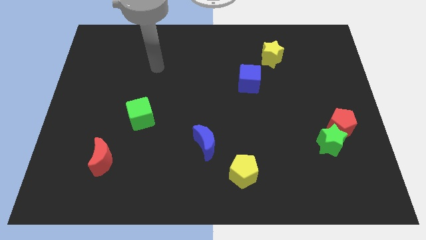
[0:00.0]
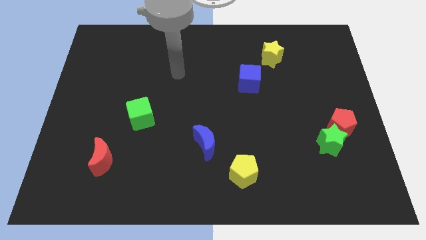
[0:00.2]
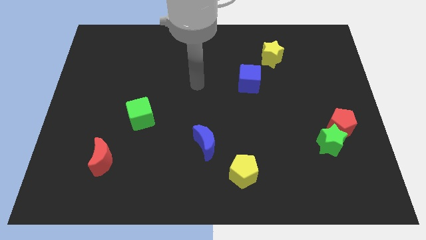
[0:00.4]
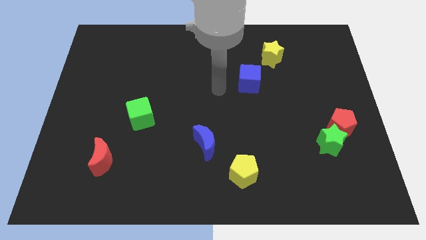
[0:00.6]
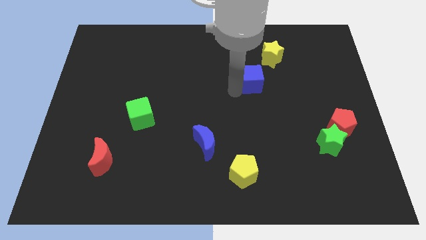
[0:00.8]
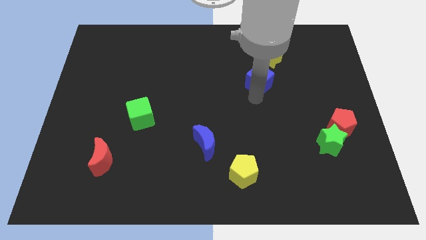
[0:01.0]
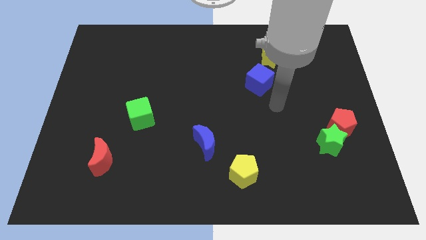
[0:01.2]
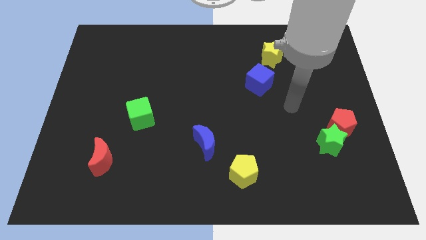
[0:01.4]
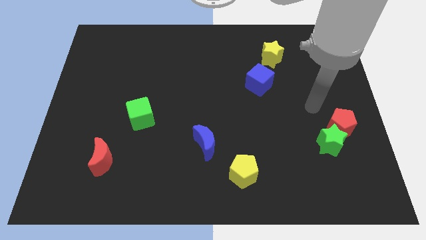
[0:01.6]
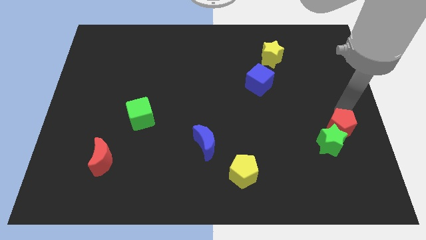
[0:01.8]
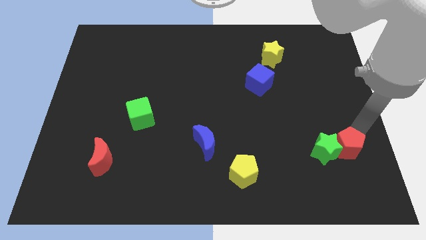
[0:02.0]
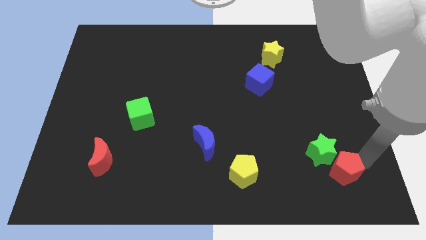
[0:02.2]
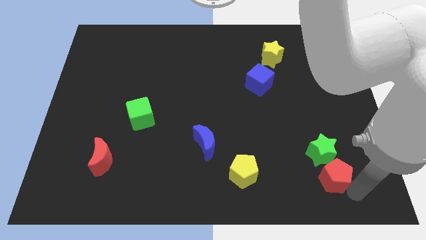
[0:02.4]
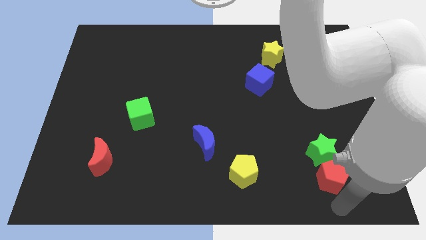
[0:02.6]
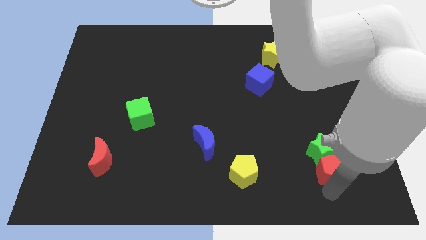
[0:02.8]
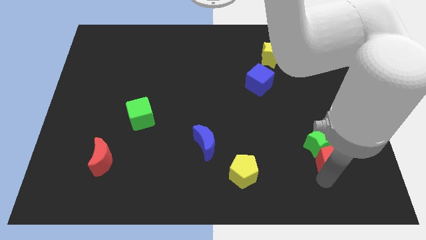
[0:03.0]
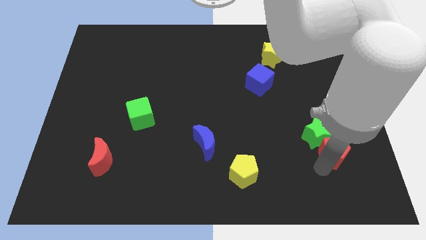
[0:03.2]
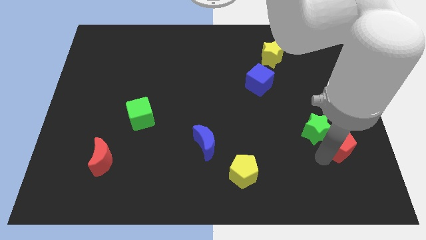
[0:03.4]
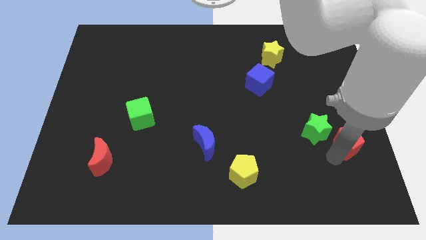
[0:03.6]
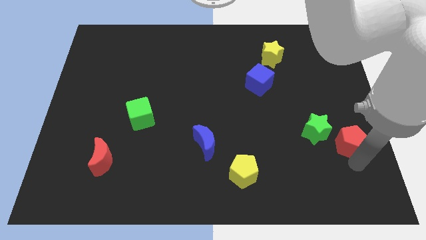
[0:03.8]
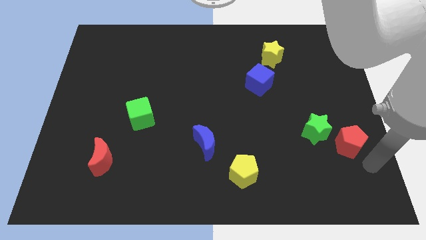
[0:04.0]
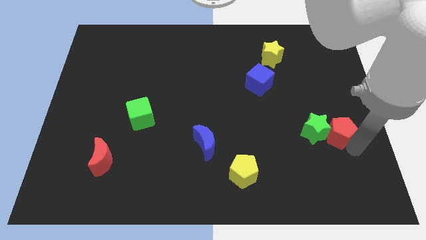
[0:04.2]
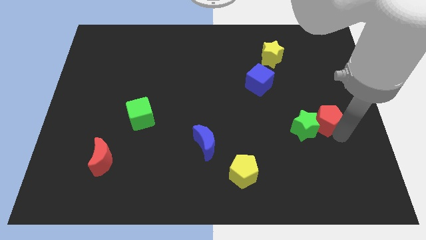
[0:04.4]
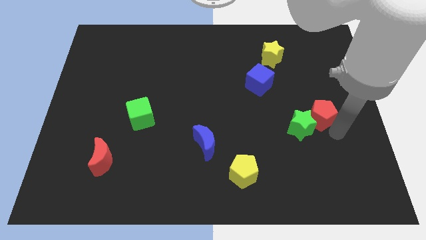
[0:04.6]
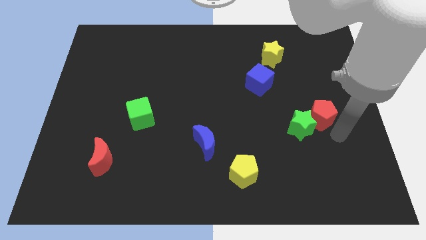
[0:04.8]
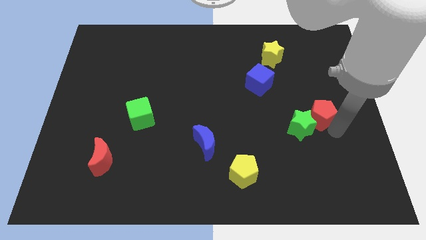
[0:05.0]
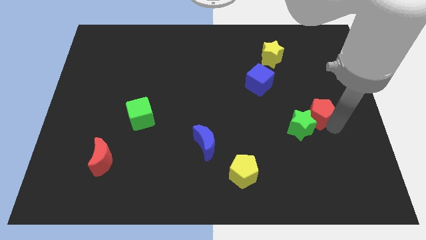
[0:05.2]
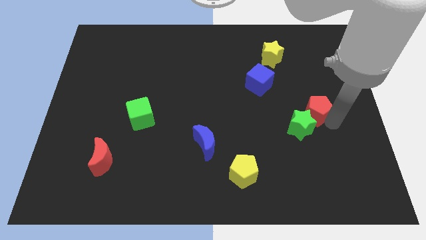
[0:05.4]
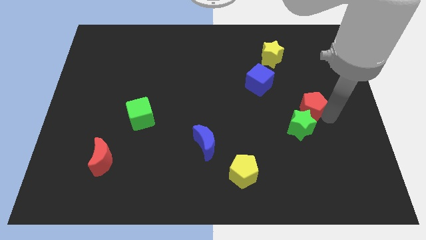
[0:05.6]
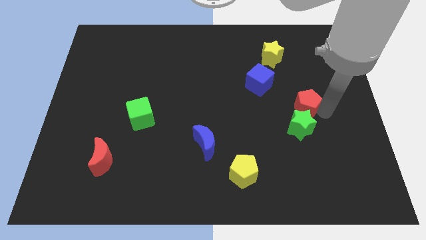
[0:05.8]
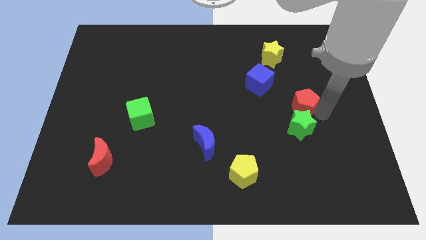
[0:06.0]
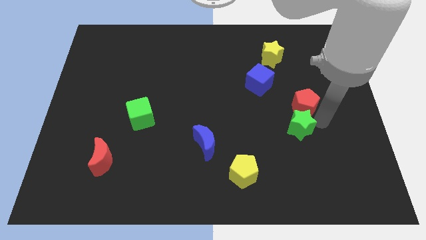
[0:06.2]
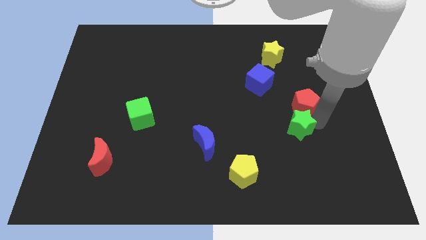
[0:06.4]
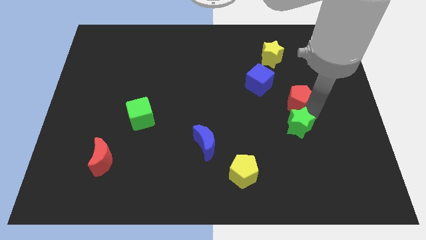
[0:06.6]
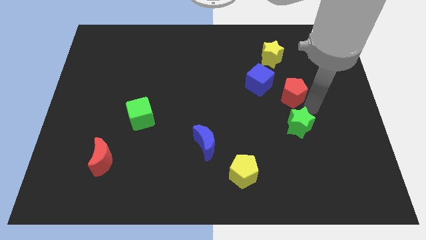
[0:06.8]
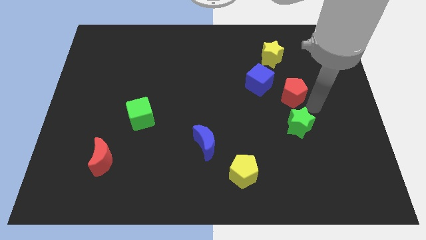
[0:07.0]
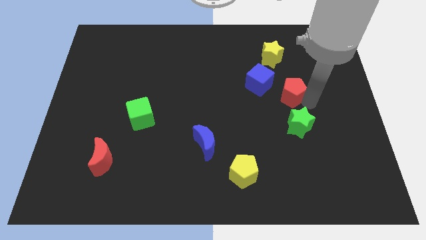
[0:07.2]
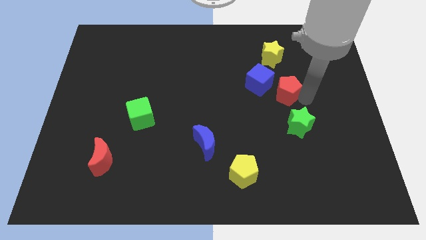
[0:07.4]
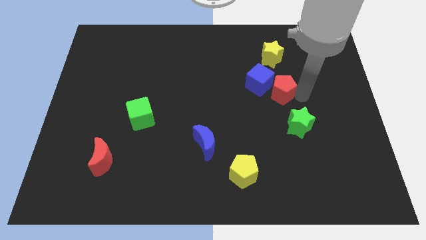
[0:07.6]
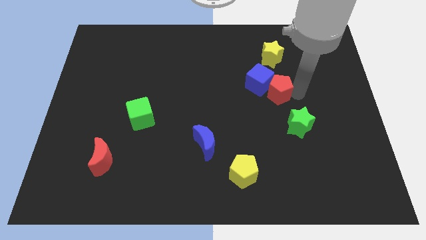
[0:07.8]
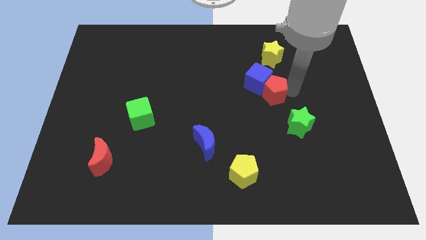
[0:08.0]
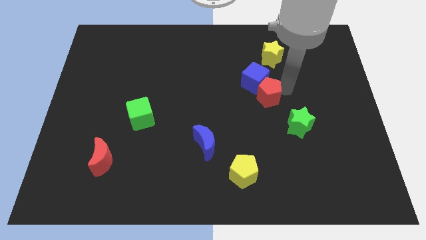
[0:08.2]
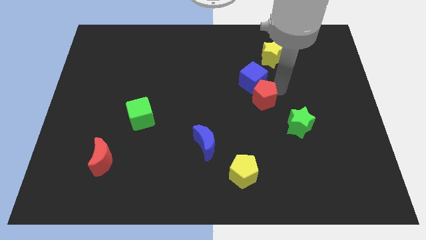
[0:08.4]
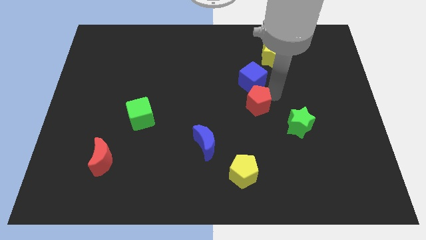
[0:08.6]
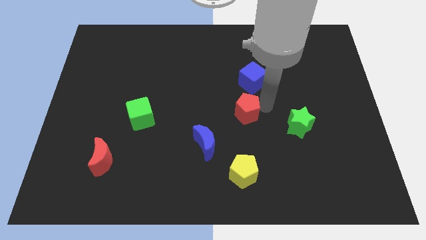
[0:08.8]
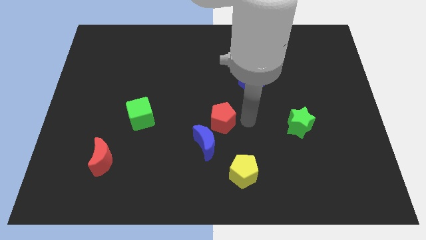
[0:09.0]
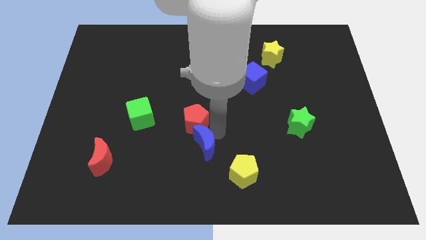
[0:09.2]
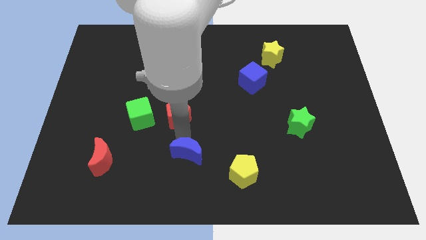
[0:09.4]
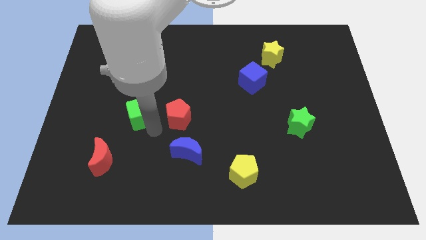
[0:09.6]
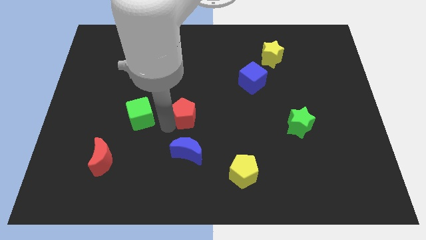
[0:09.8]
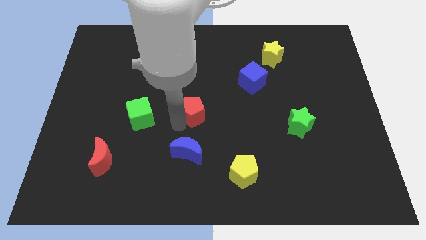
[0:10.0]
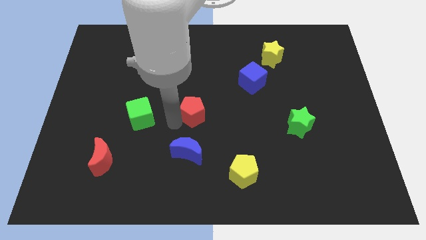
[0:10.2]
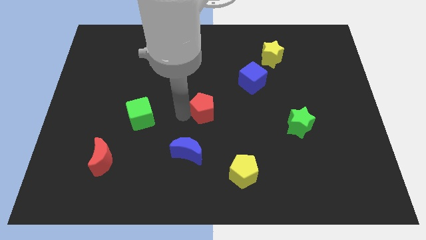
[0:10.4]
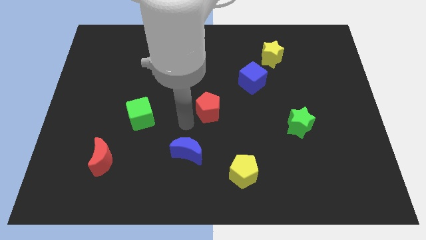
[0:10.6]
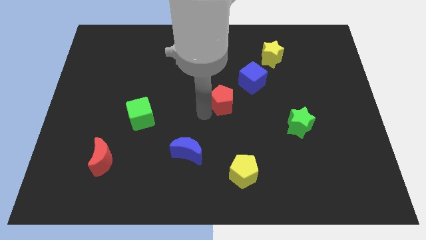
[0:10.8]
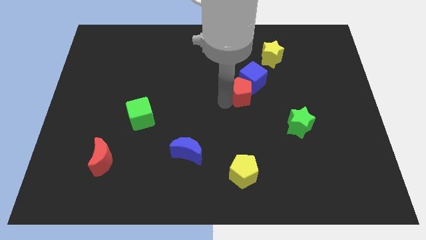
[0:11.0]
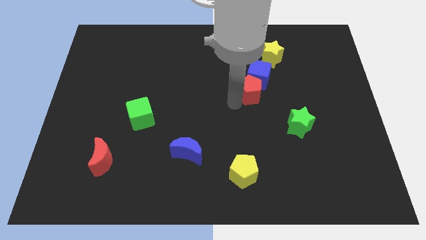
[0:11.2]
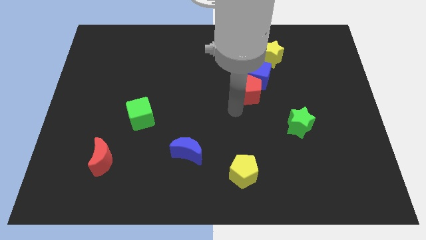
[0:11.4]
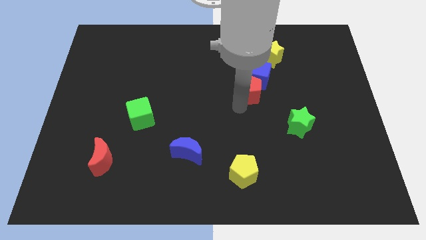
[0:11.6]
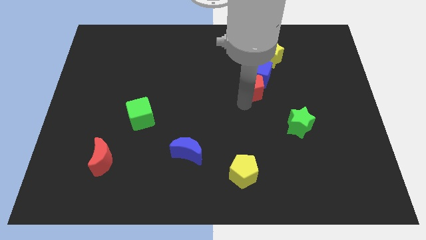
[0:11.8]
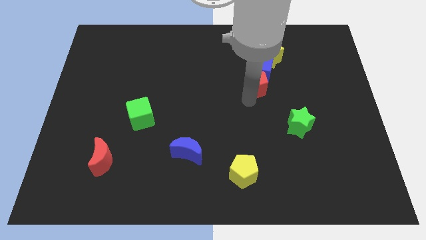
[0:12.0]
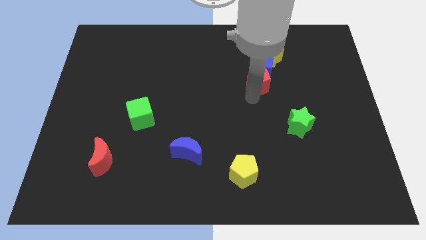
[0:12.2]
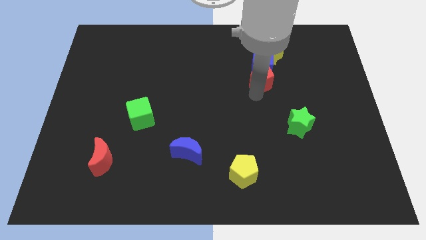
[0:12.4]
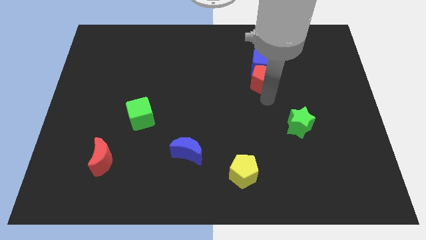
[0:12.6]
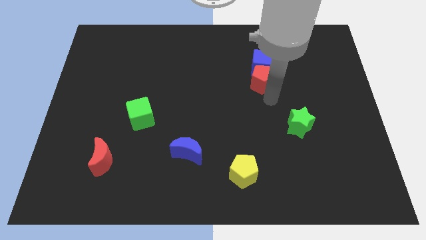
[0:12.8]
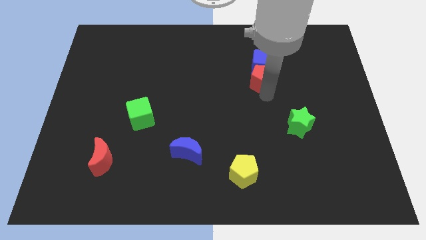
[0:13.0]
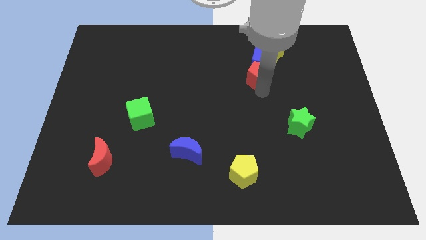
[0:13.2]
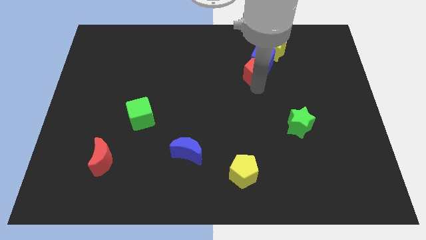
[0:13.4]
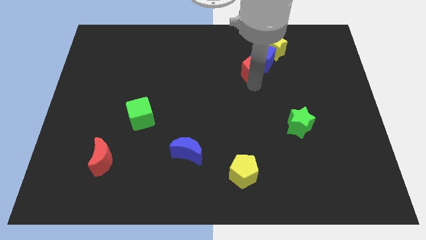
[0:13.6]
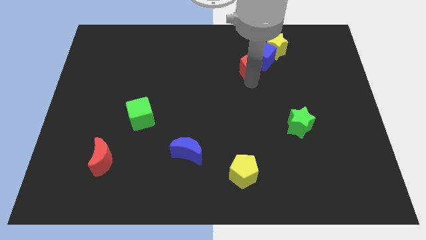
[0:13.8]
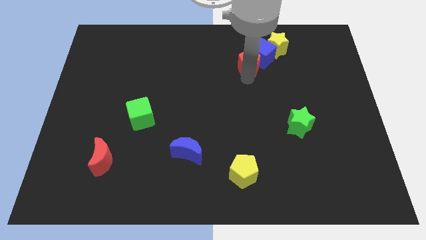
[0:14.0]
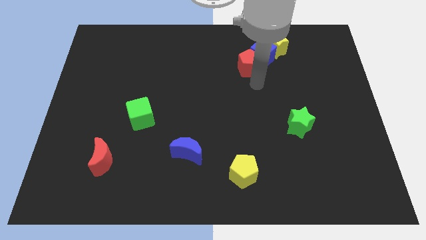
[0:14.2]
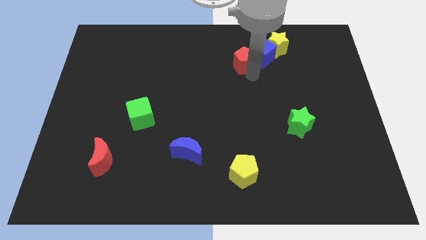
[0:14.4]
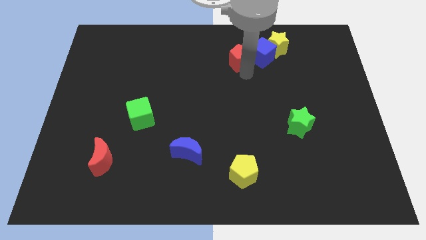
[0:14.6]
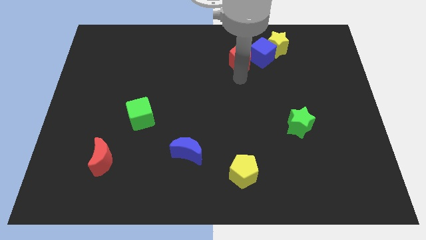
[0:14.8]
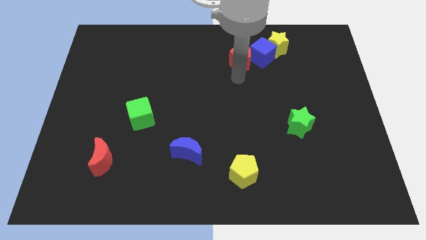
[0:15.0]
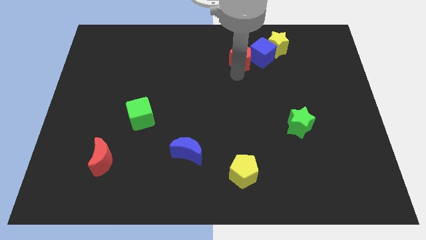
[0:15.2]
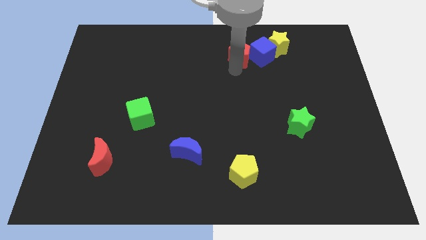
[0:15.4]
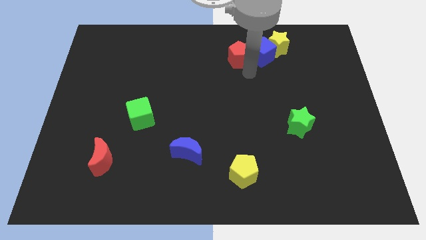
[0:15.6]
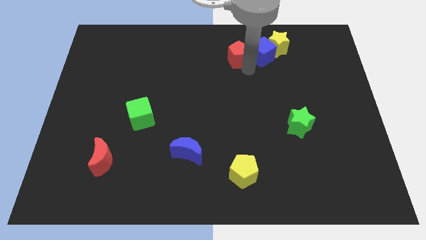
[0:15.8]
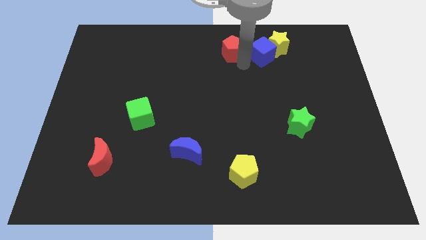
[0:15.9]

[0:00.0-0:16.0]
put the red pentagon to the top
